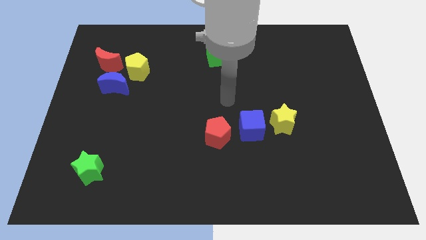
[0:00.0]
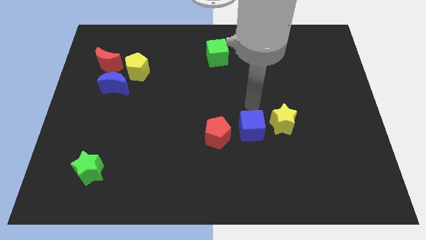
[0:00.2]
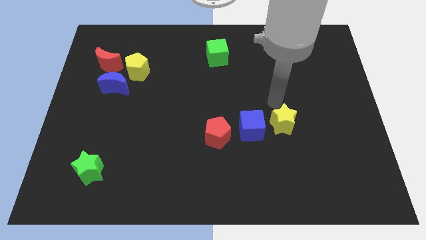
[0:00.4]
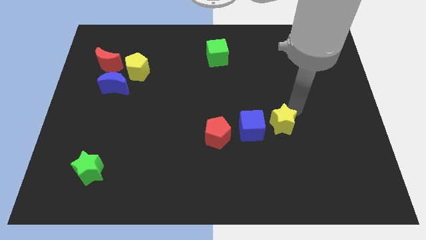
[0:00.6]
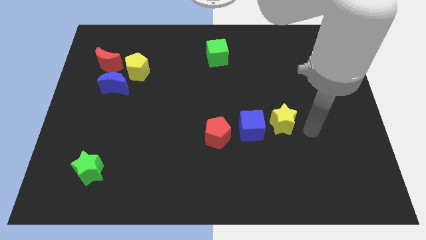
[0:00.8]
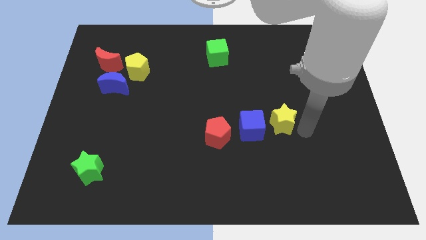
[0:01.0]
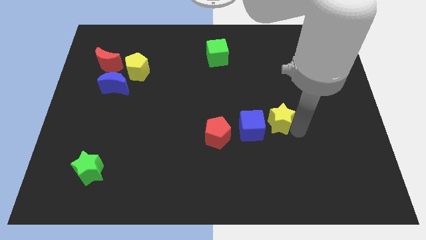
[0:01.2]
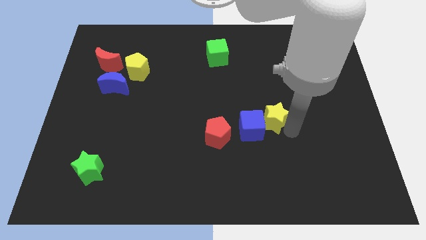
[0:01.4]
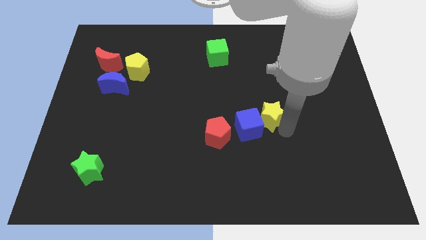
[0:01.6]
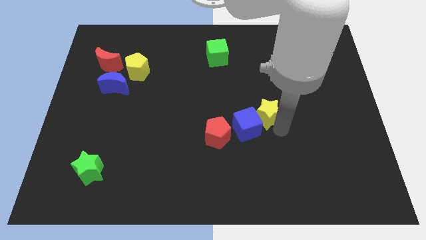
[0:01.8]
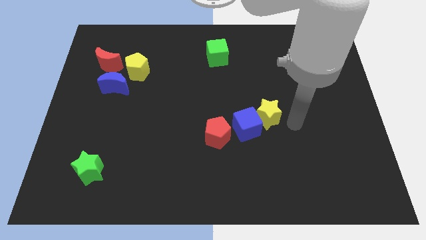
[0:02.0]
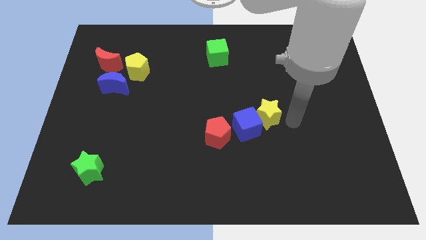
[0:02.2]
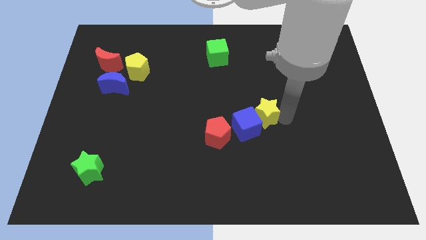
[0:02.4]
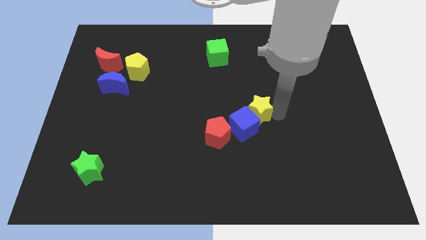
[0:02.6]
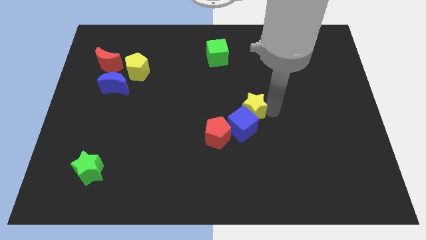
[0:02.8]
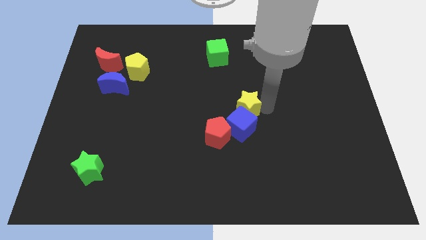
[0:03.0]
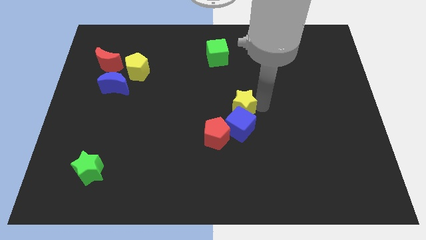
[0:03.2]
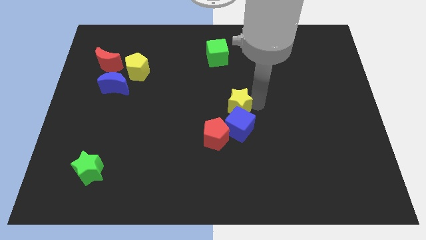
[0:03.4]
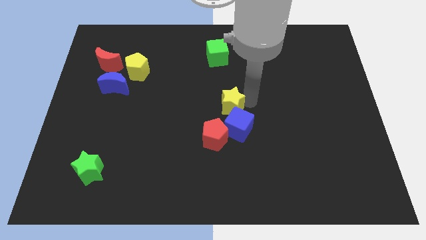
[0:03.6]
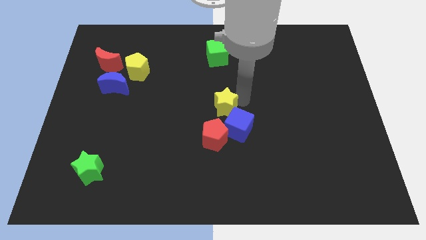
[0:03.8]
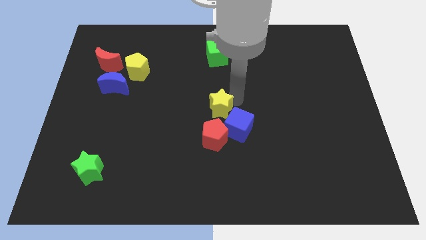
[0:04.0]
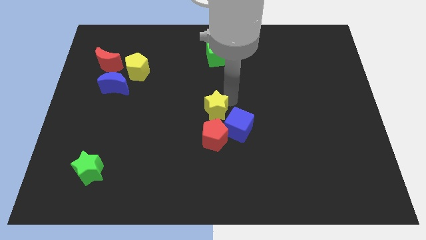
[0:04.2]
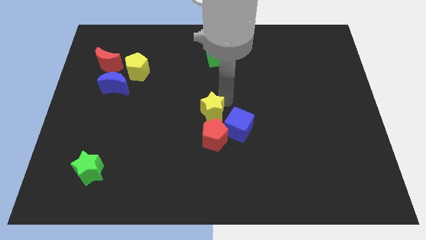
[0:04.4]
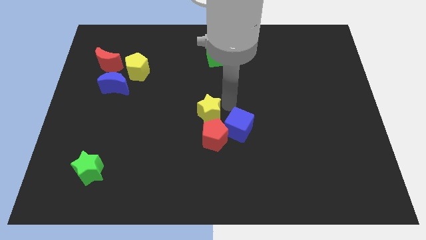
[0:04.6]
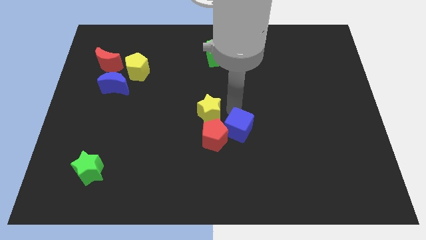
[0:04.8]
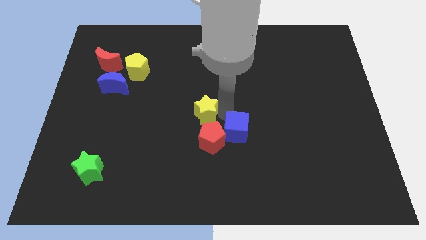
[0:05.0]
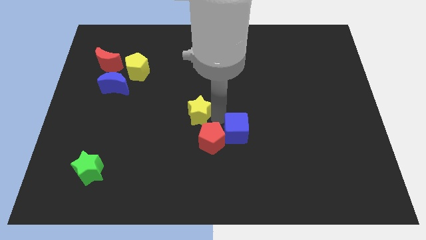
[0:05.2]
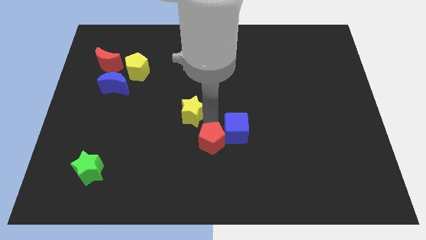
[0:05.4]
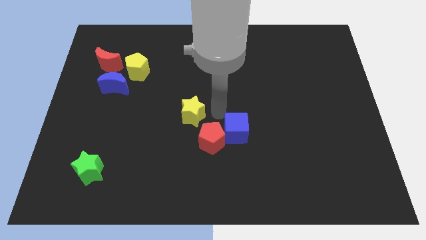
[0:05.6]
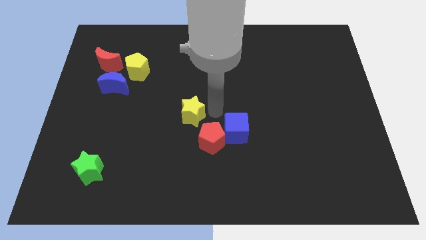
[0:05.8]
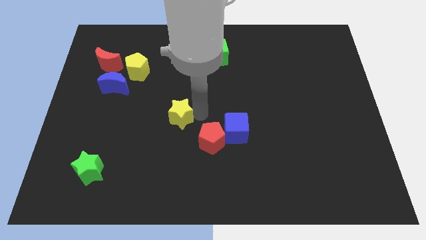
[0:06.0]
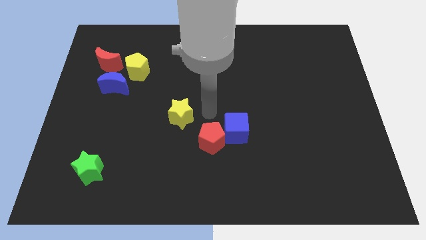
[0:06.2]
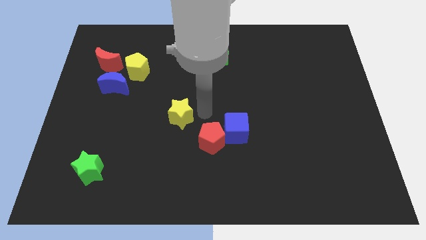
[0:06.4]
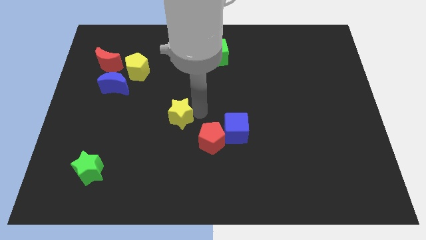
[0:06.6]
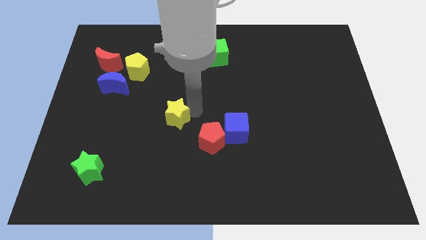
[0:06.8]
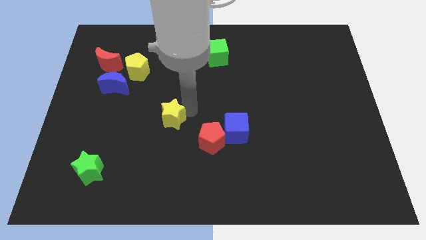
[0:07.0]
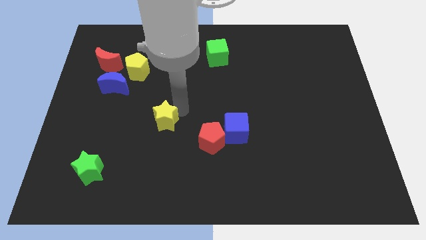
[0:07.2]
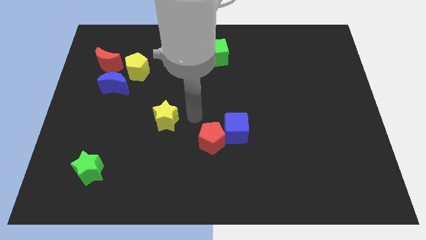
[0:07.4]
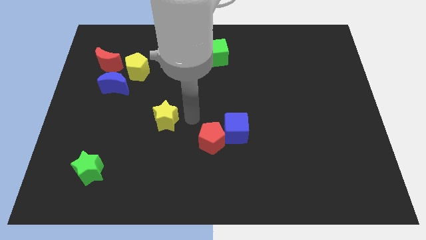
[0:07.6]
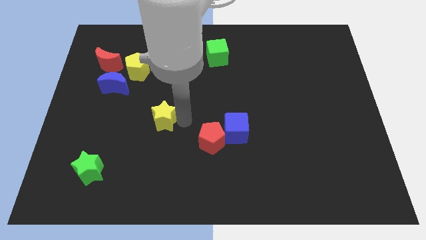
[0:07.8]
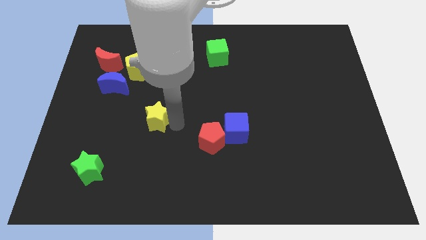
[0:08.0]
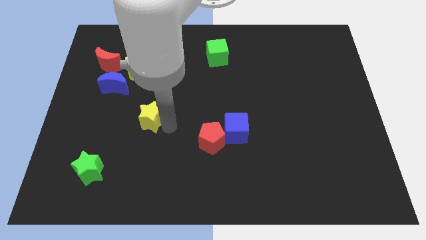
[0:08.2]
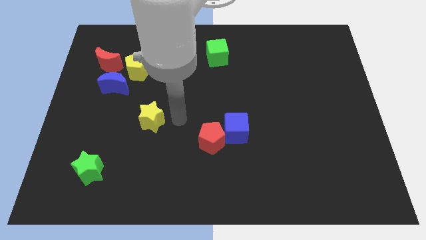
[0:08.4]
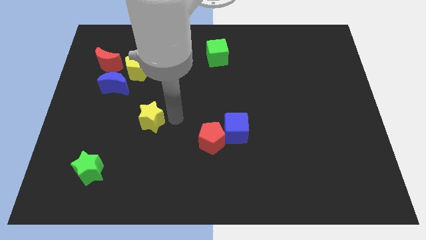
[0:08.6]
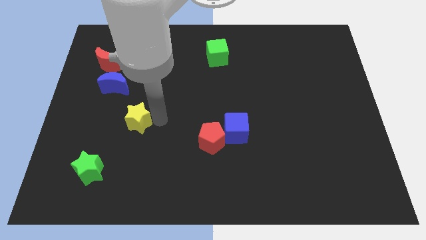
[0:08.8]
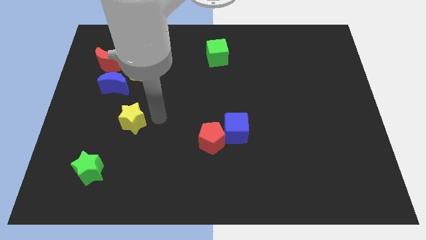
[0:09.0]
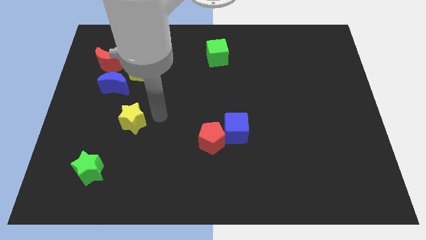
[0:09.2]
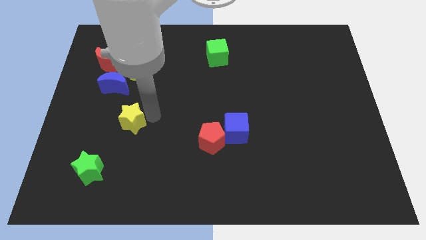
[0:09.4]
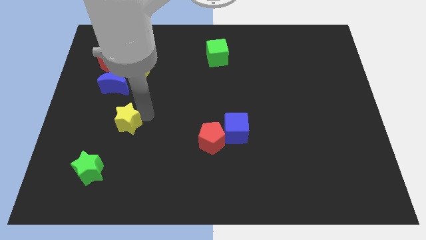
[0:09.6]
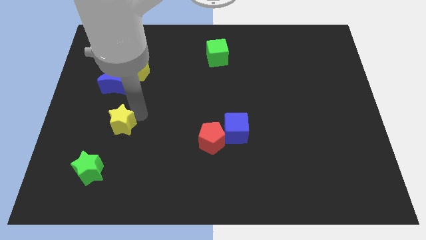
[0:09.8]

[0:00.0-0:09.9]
push the yellow star to the top side of the green star

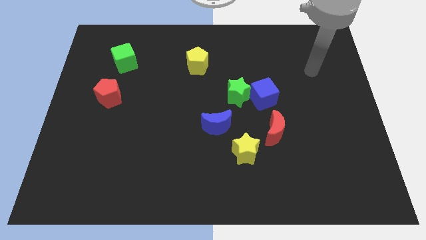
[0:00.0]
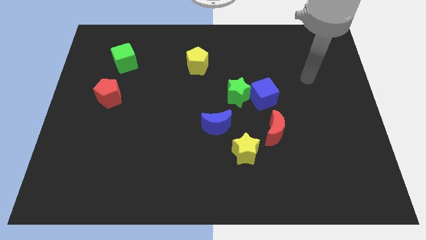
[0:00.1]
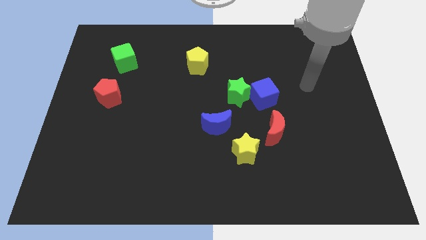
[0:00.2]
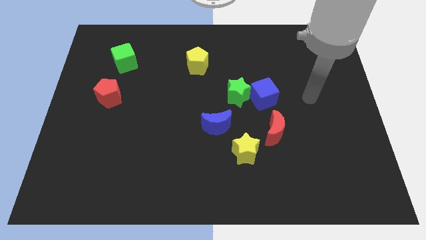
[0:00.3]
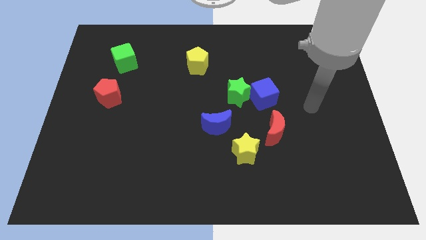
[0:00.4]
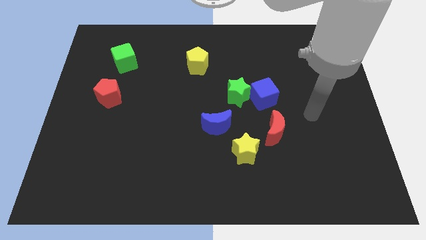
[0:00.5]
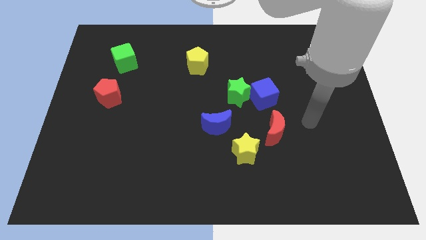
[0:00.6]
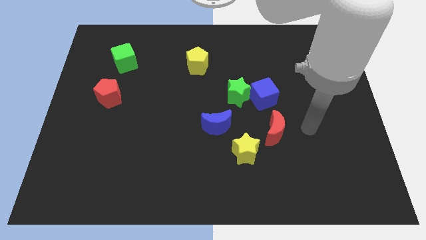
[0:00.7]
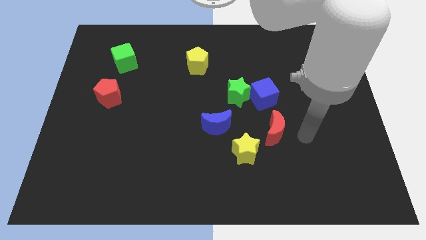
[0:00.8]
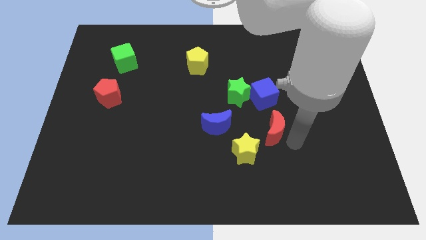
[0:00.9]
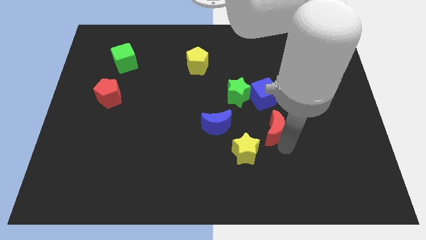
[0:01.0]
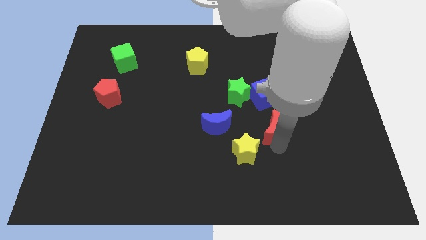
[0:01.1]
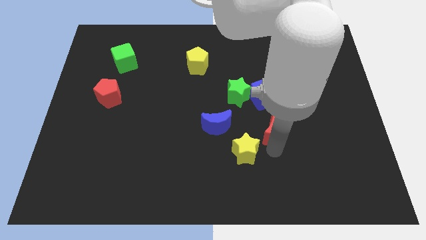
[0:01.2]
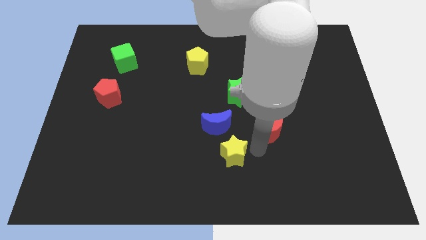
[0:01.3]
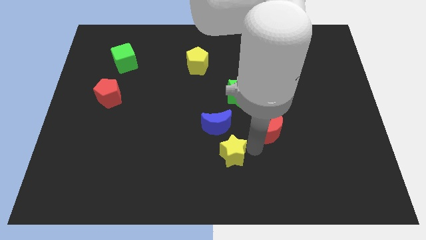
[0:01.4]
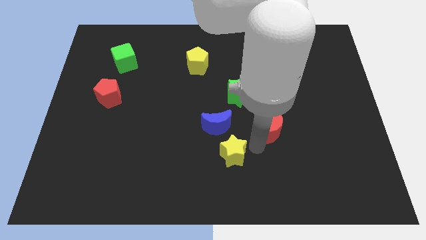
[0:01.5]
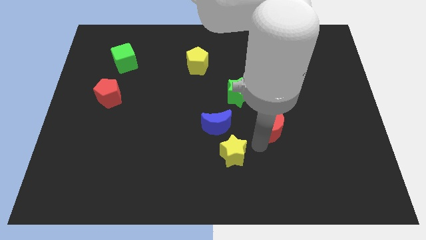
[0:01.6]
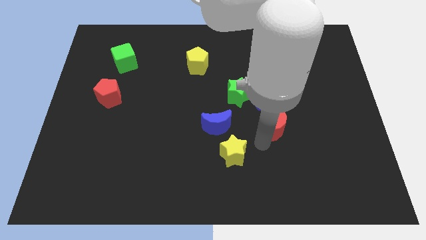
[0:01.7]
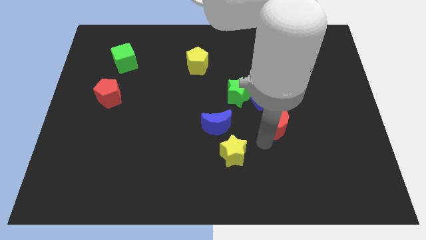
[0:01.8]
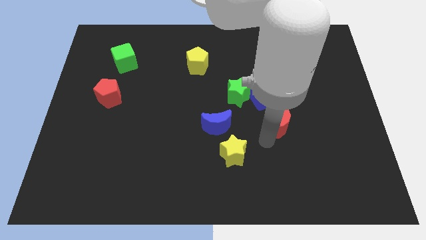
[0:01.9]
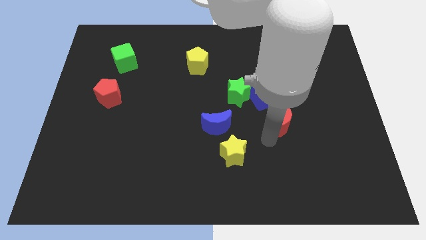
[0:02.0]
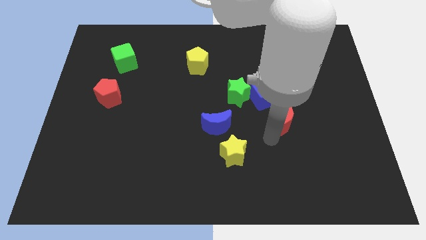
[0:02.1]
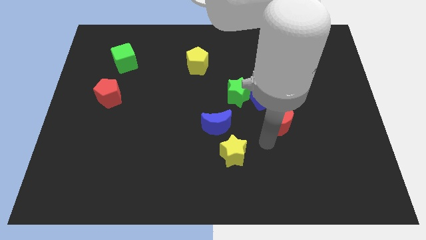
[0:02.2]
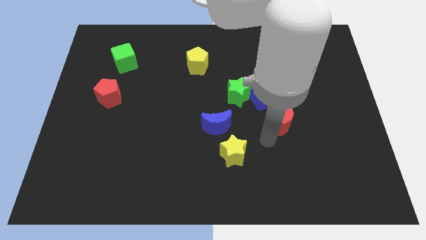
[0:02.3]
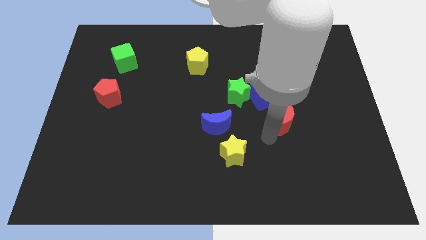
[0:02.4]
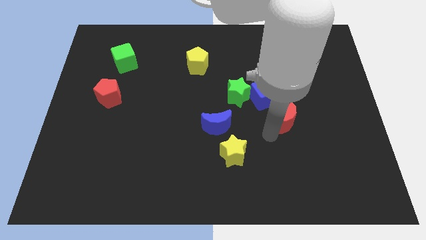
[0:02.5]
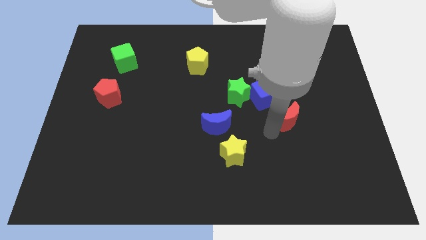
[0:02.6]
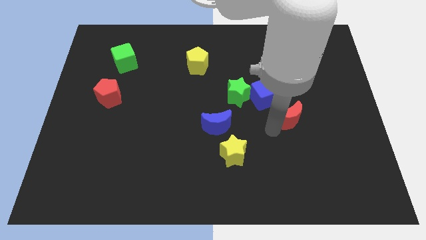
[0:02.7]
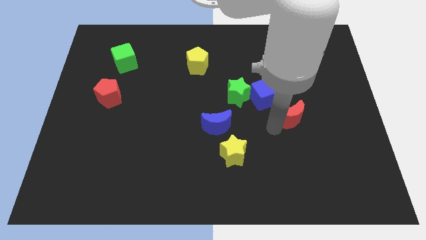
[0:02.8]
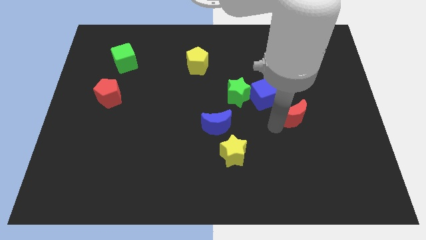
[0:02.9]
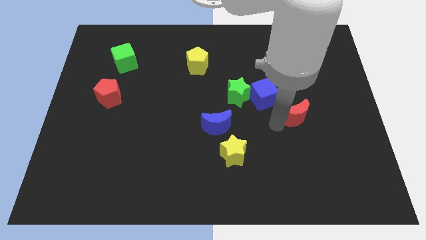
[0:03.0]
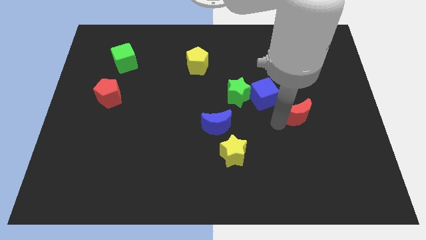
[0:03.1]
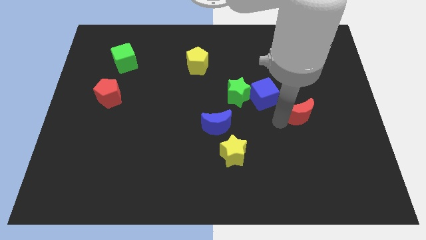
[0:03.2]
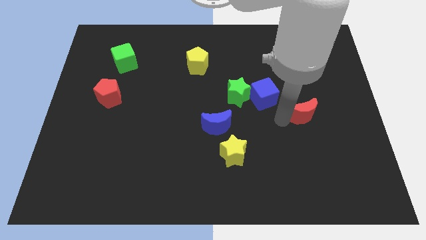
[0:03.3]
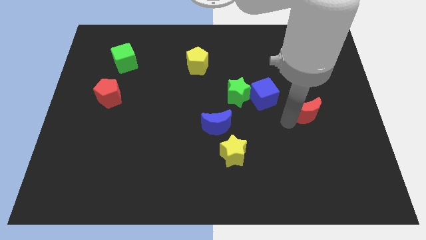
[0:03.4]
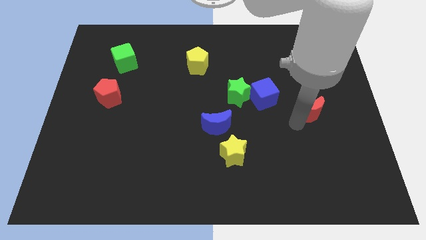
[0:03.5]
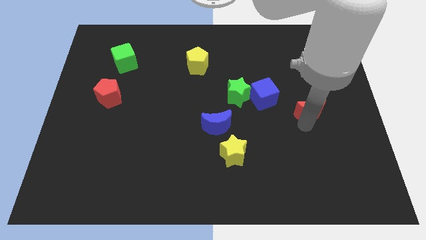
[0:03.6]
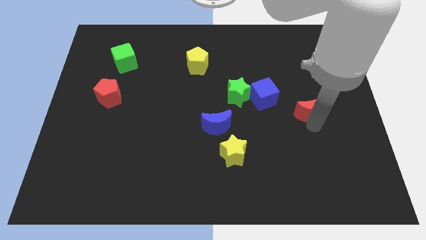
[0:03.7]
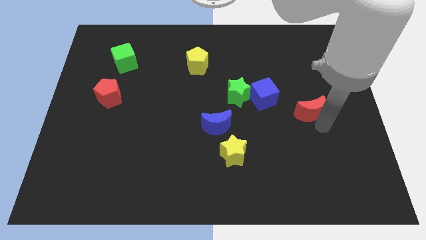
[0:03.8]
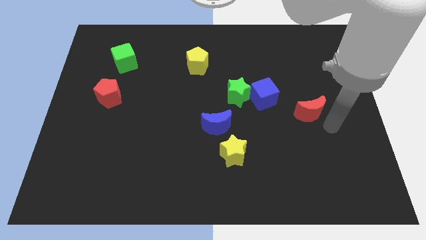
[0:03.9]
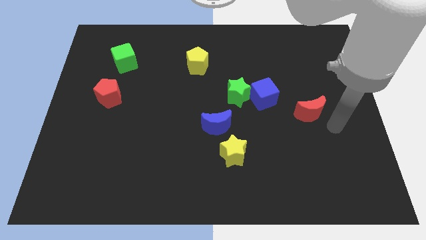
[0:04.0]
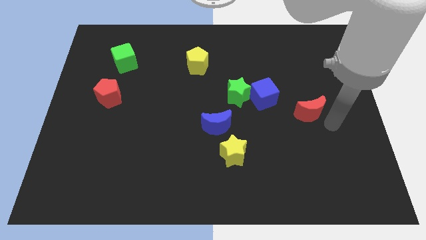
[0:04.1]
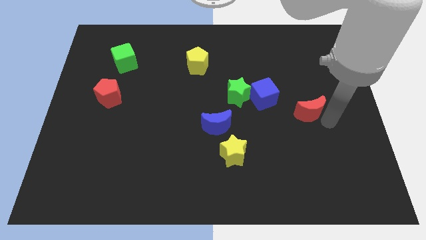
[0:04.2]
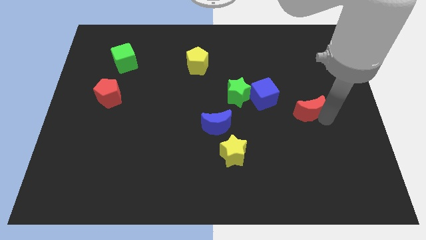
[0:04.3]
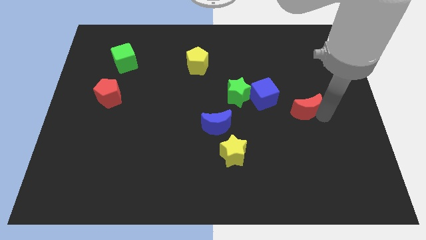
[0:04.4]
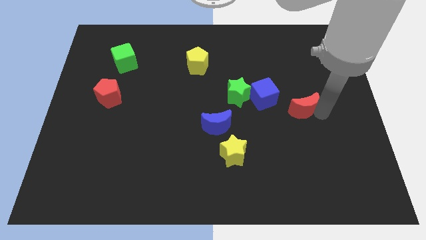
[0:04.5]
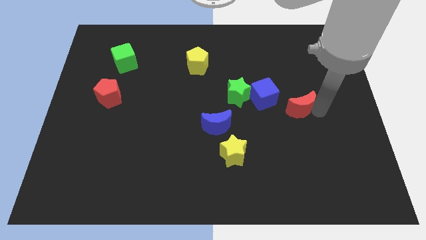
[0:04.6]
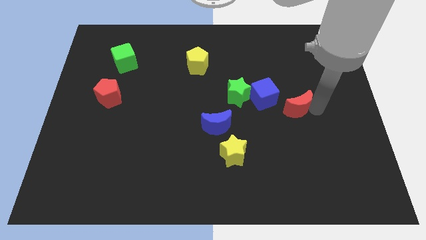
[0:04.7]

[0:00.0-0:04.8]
slide the red moon to the right side of the green star
